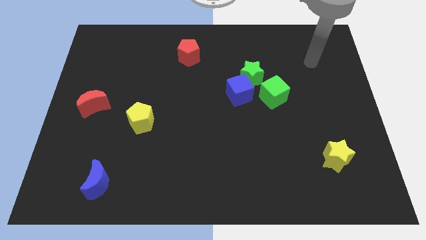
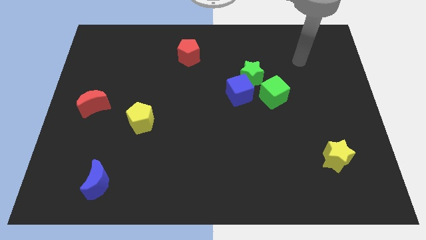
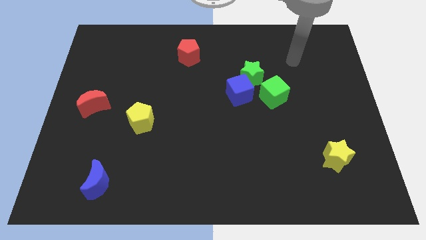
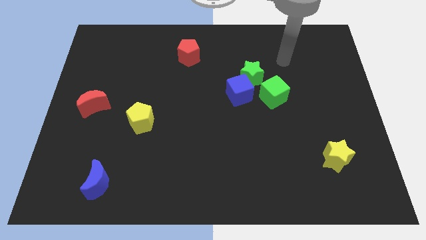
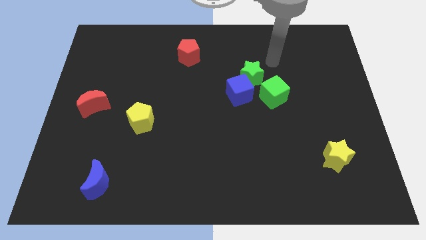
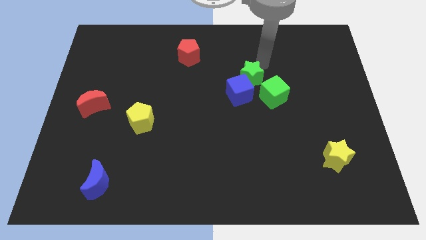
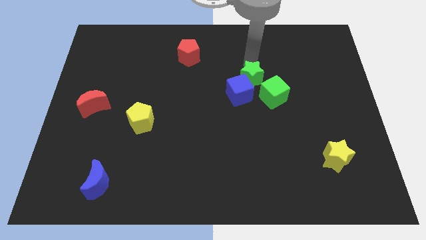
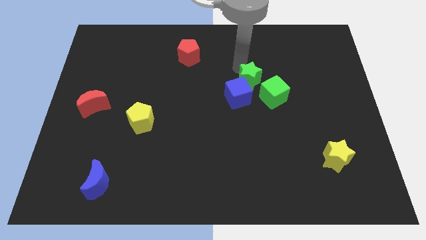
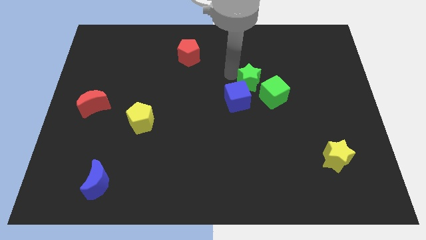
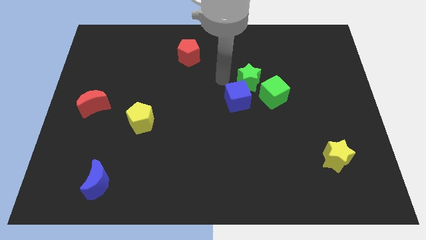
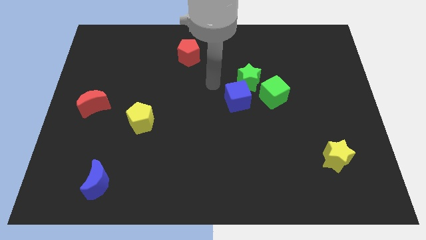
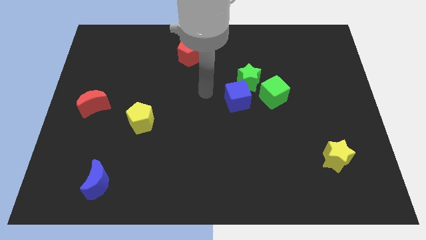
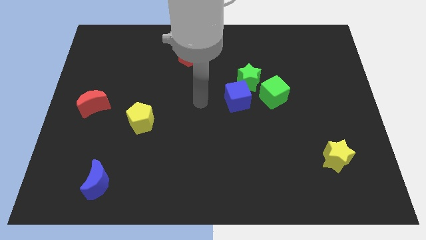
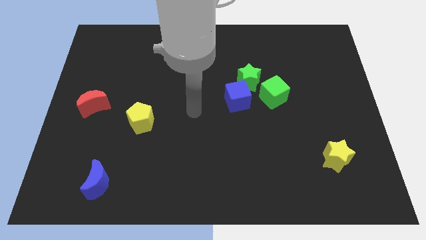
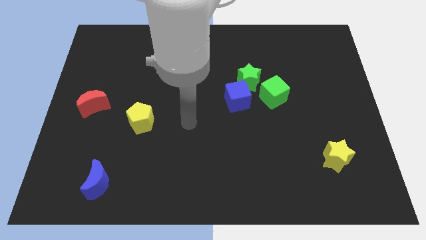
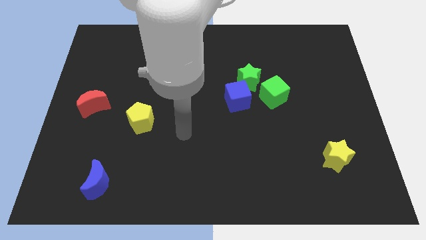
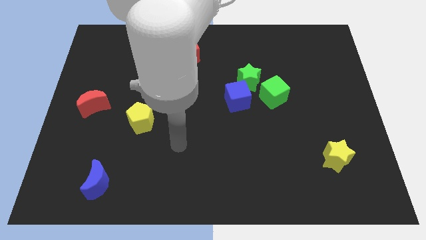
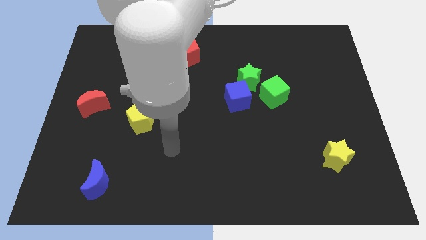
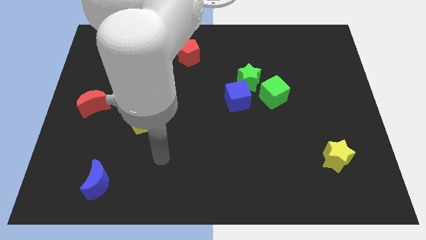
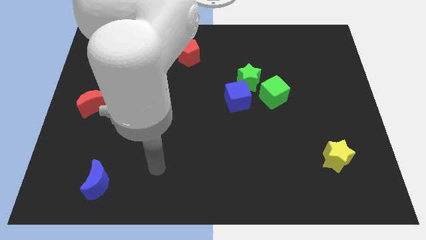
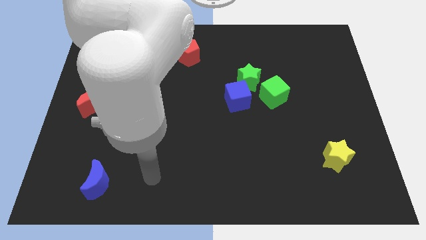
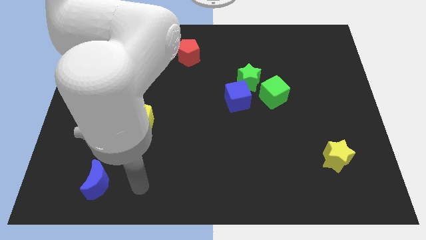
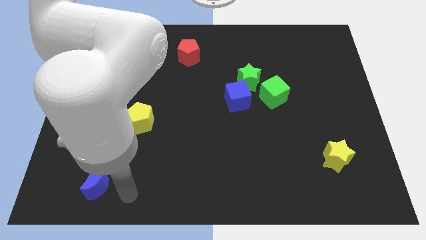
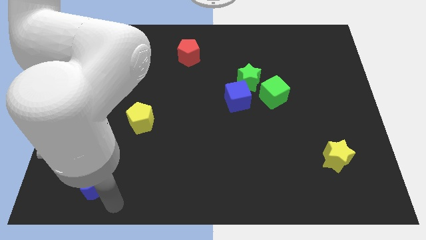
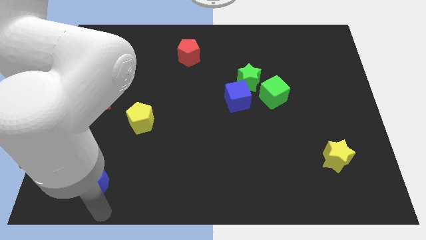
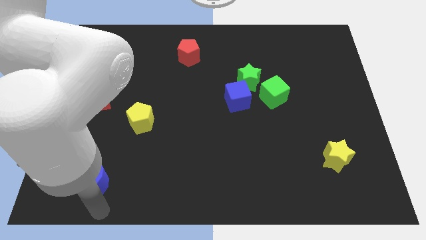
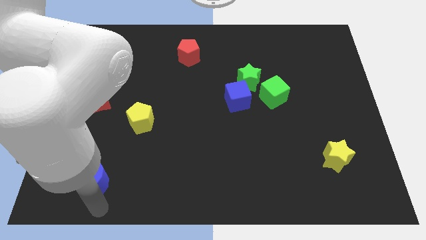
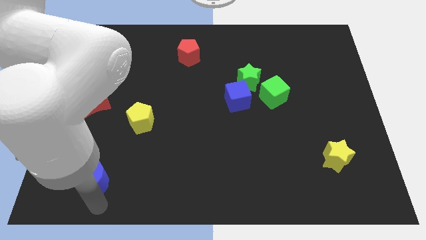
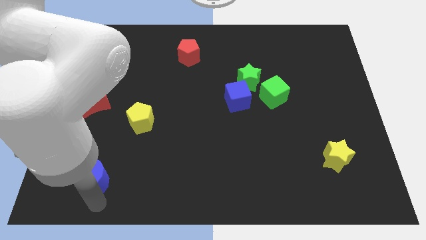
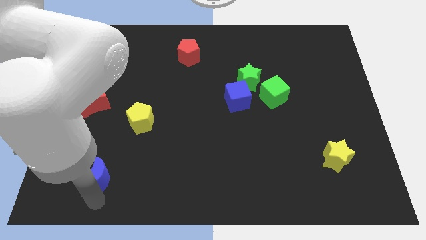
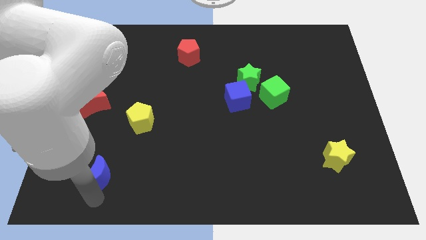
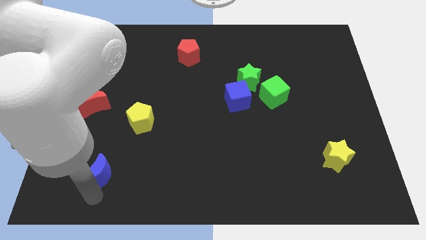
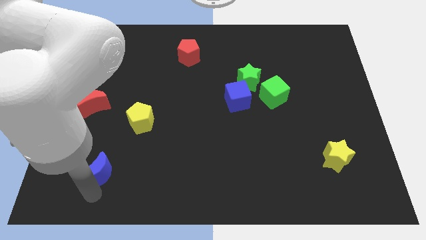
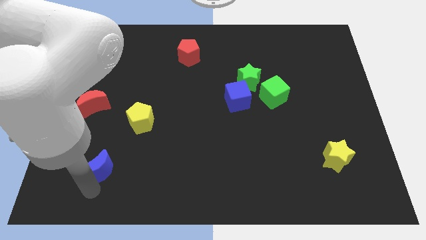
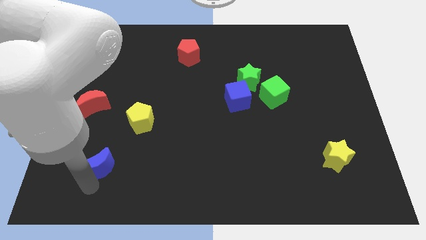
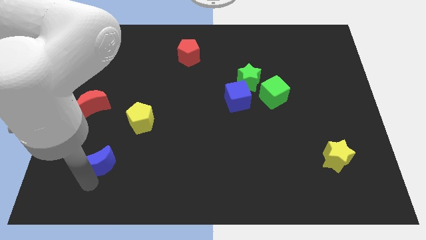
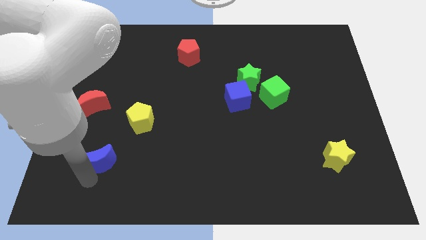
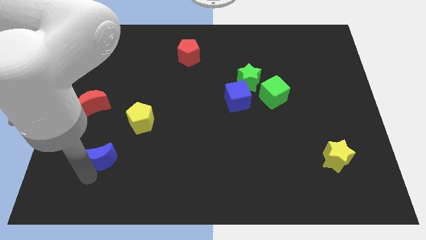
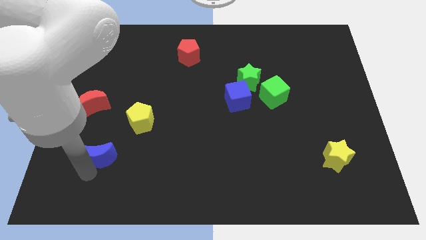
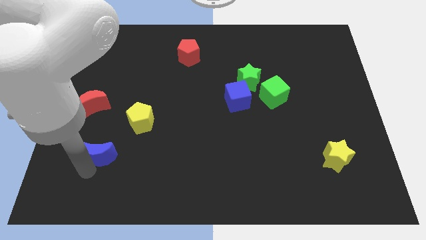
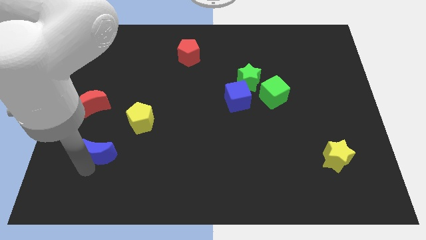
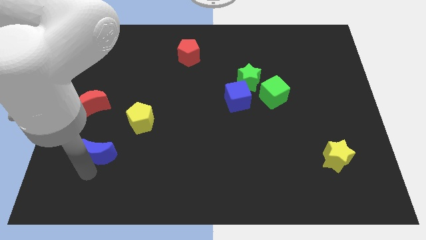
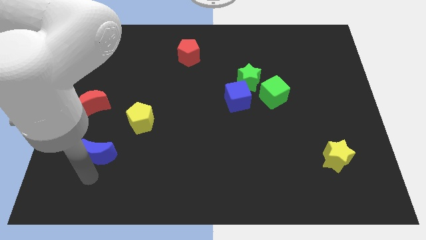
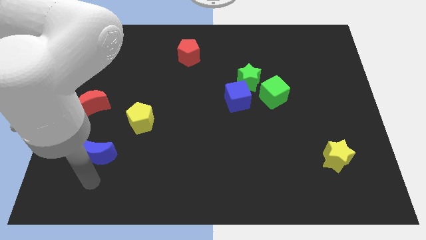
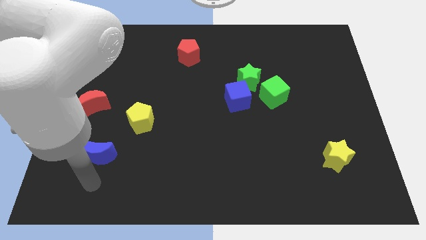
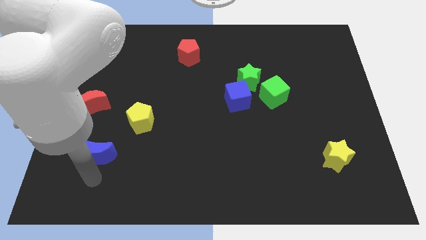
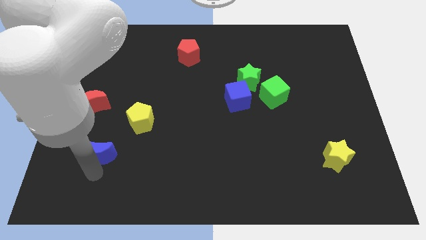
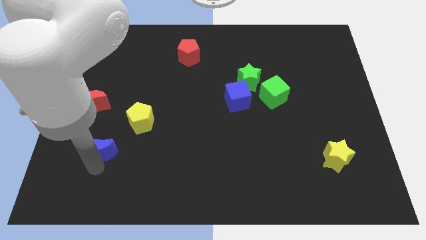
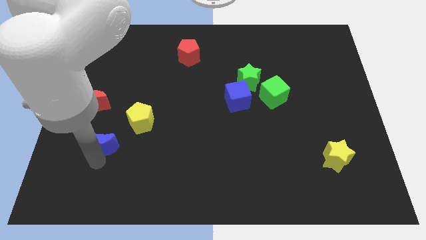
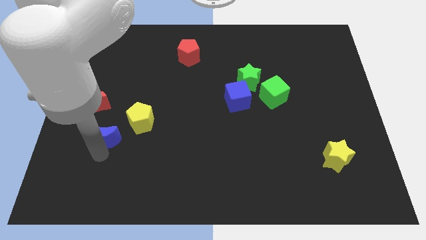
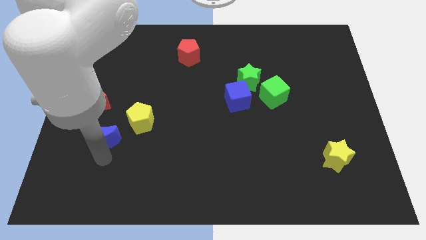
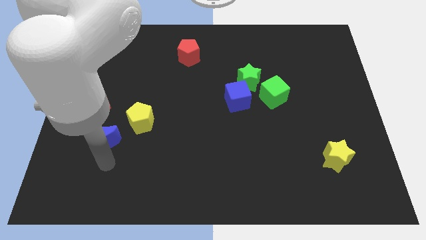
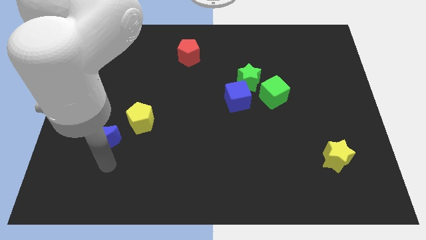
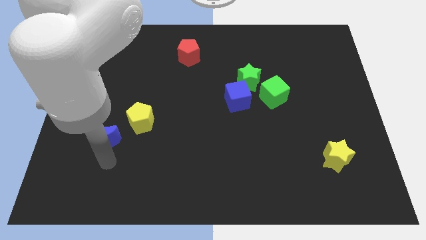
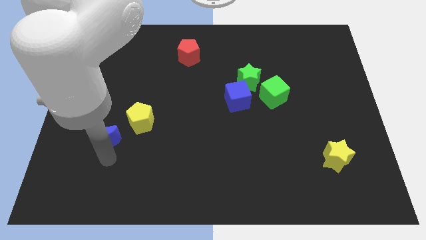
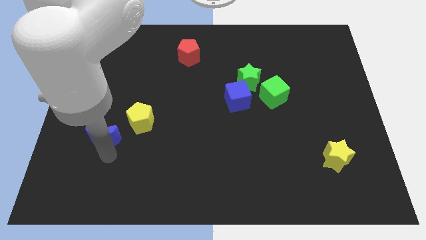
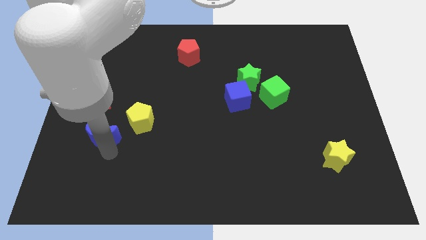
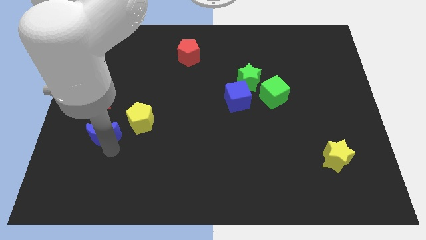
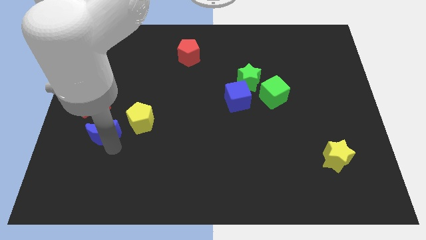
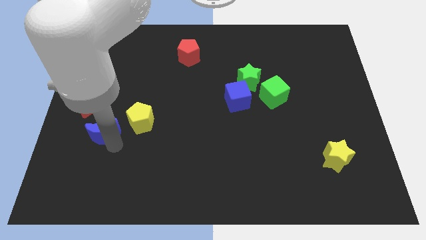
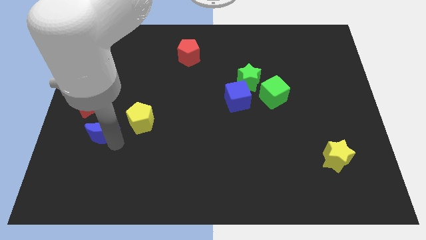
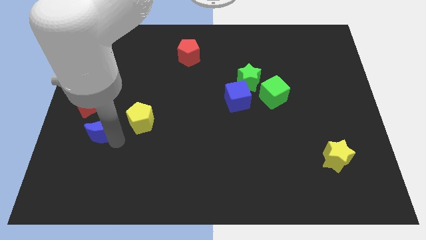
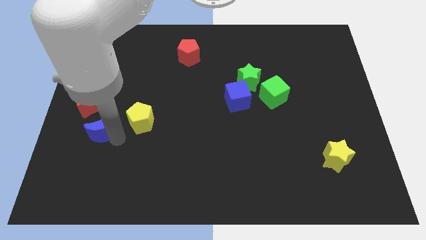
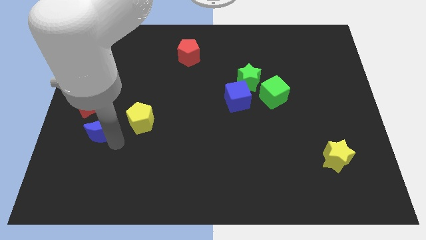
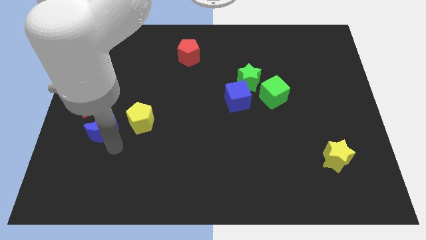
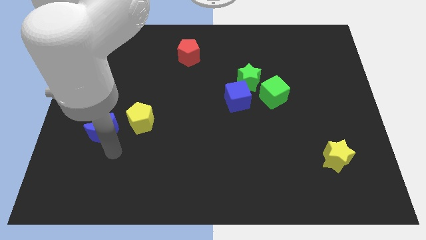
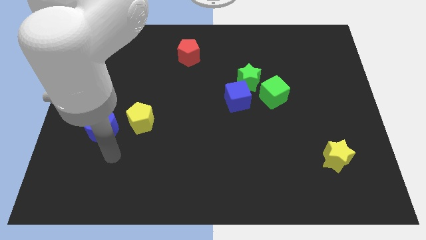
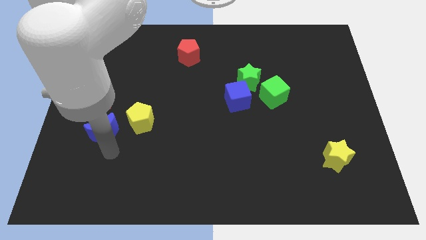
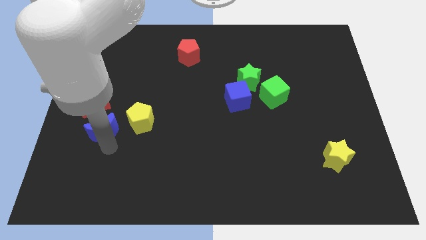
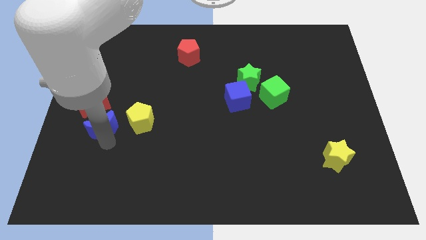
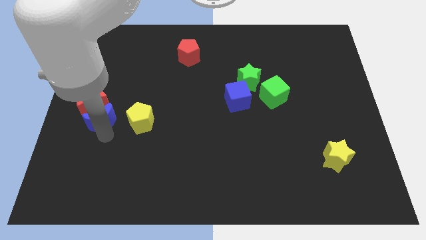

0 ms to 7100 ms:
push the blue moon to the red moon

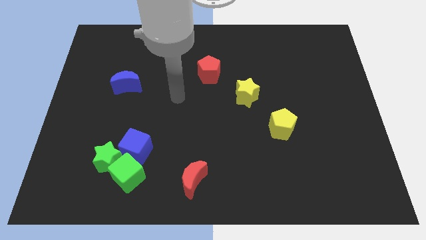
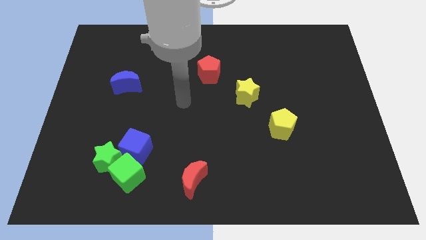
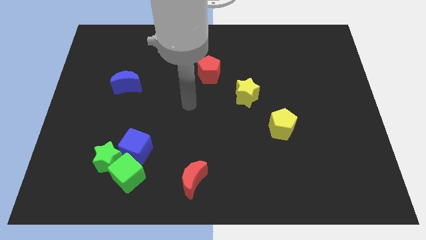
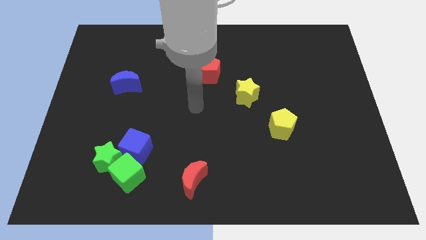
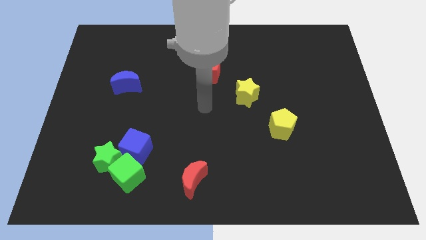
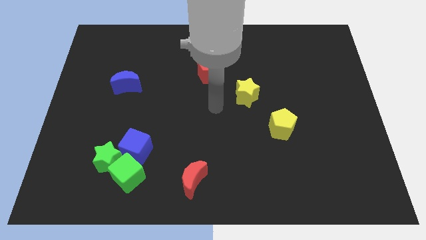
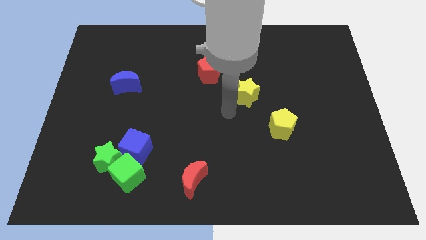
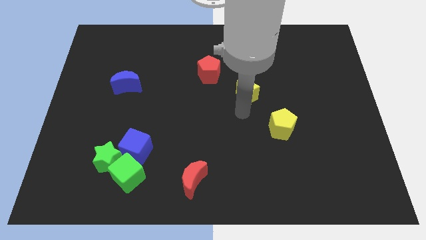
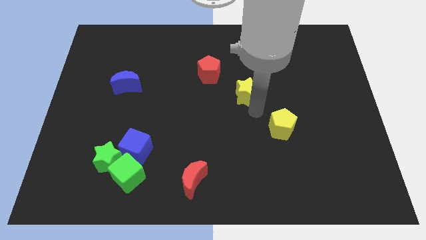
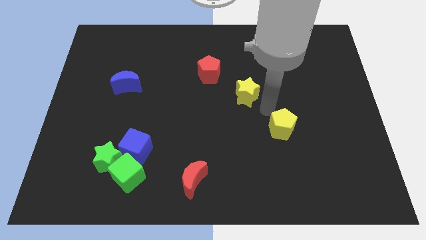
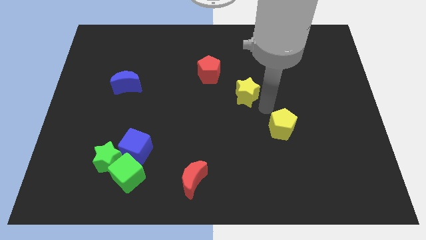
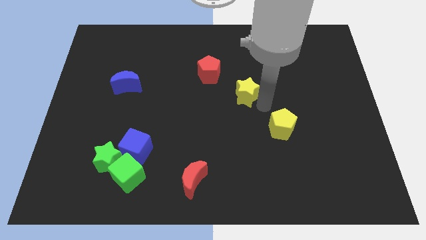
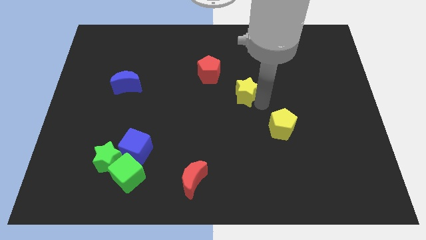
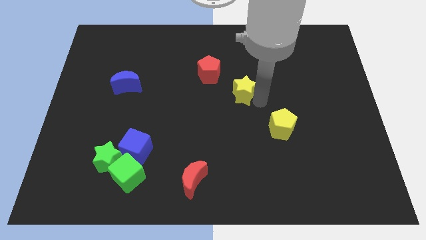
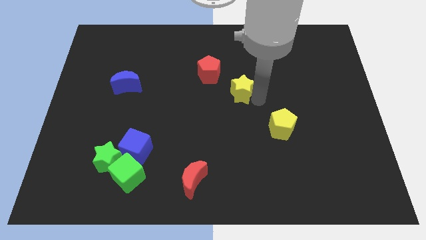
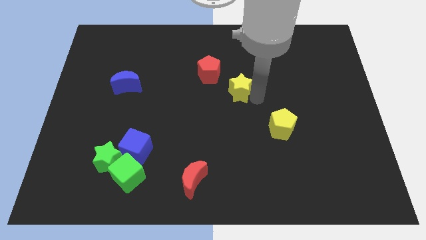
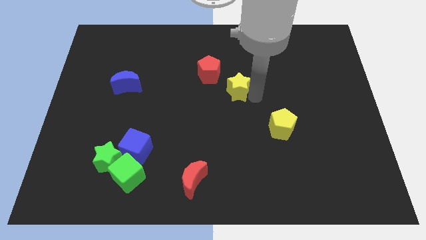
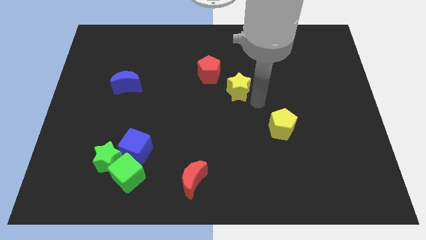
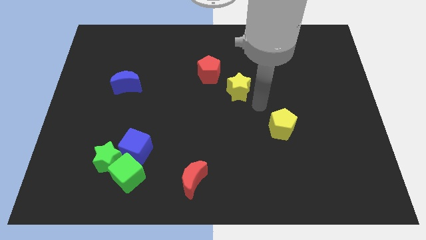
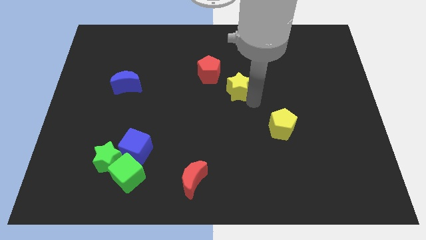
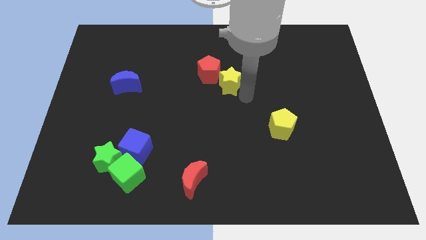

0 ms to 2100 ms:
put the yellow star towards the red pentagon
